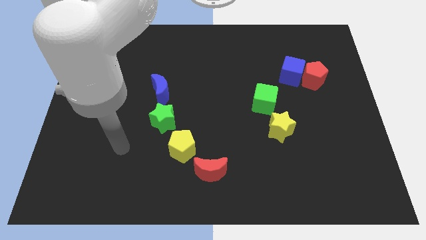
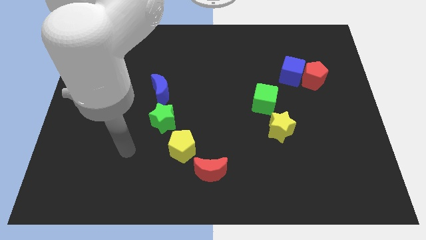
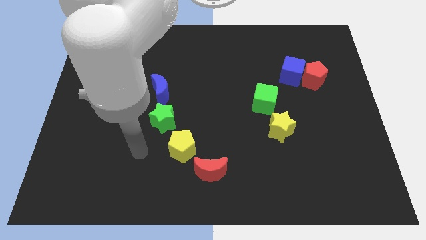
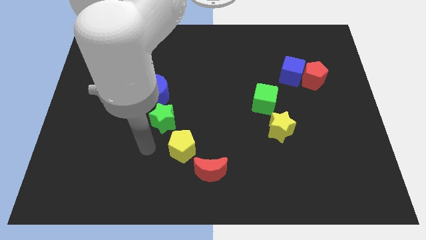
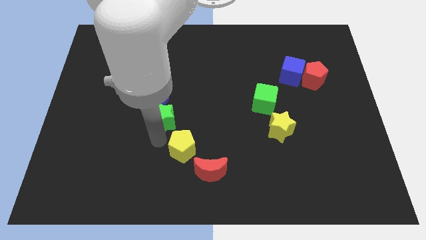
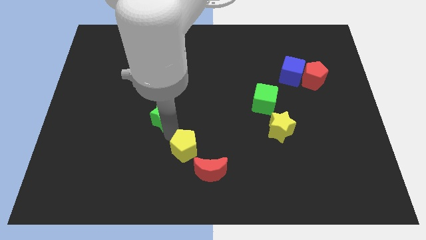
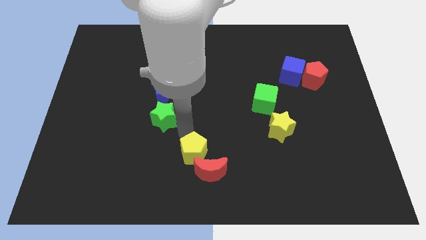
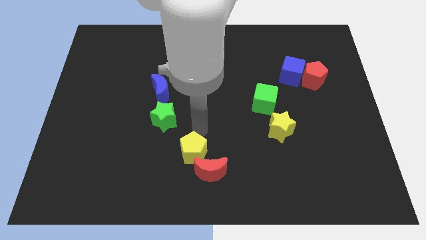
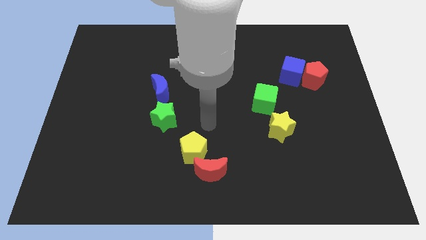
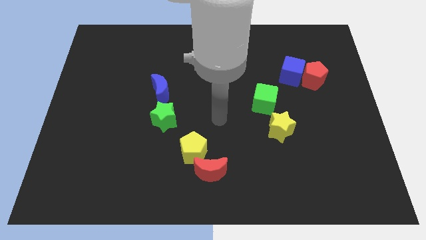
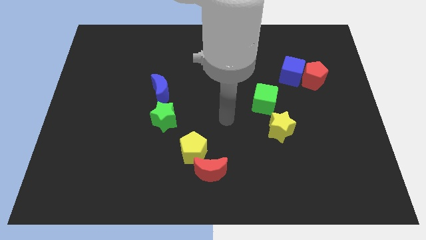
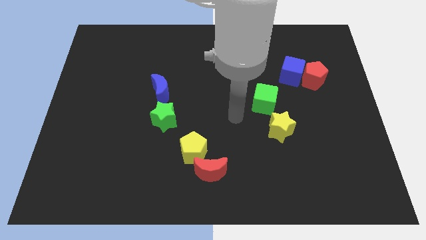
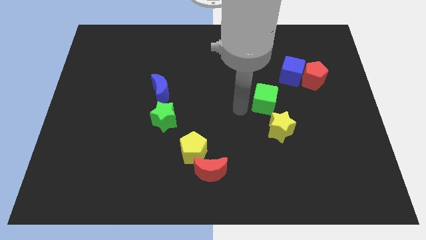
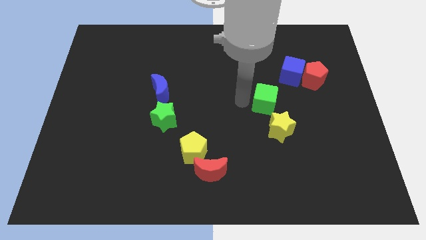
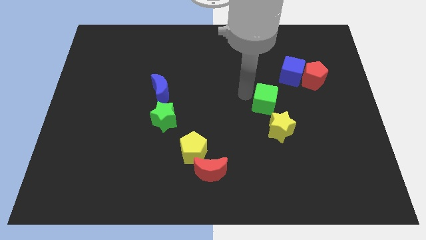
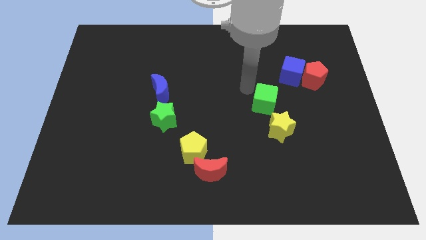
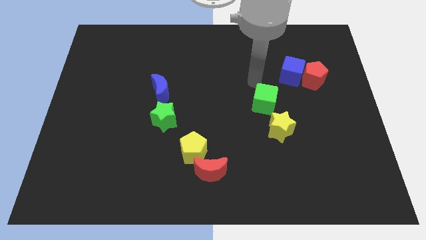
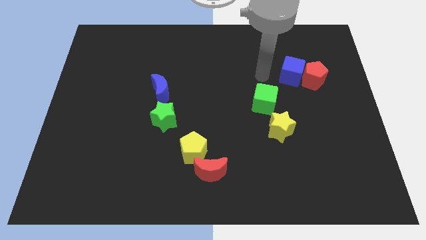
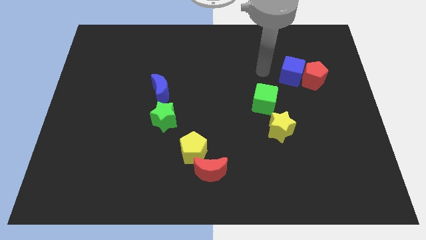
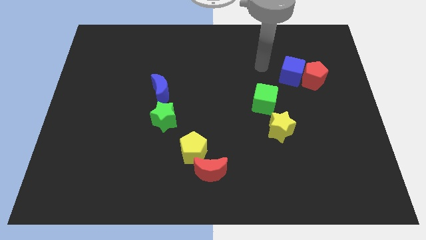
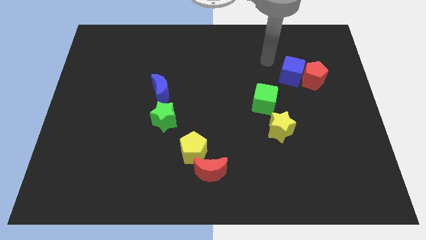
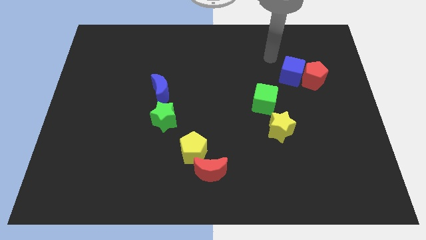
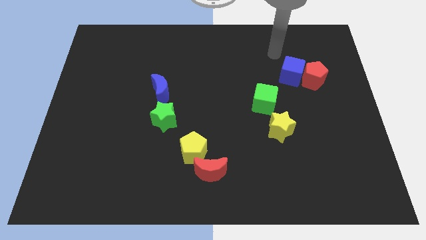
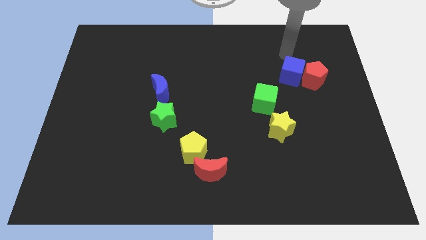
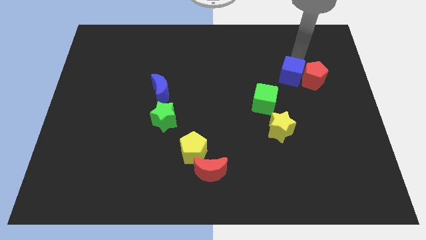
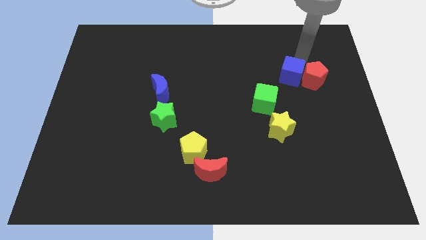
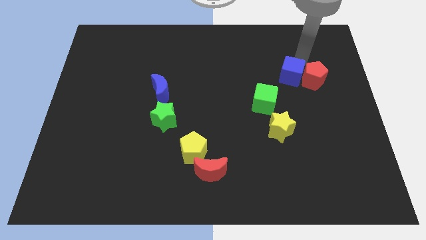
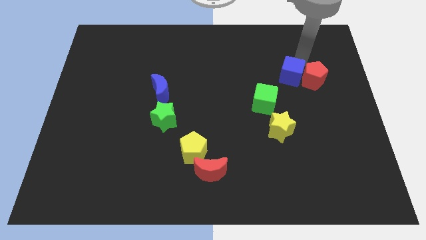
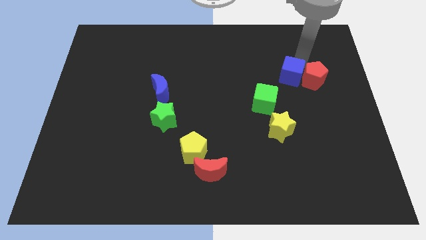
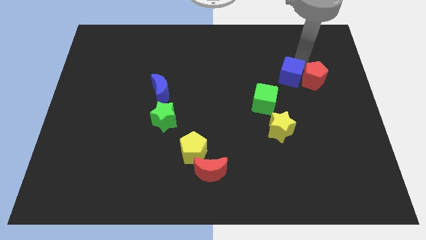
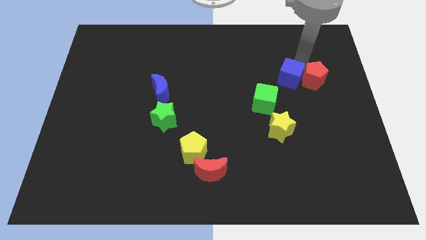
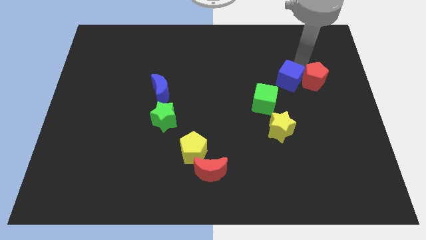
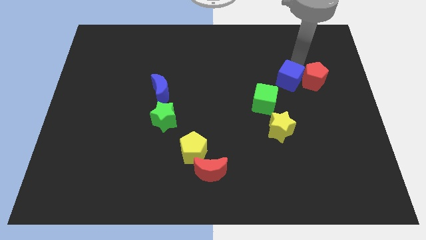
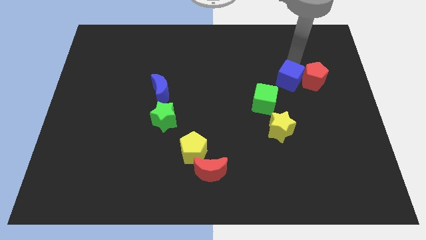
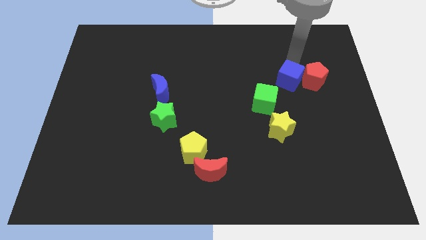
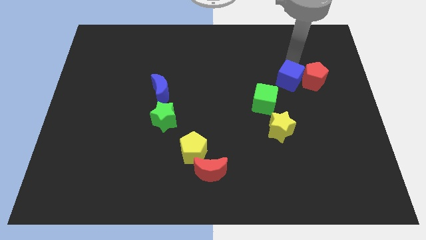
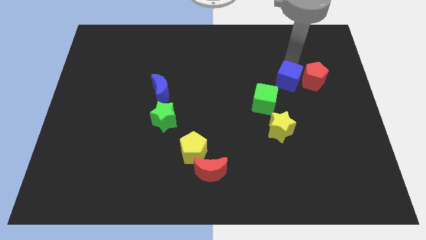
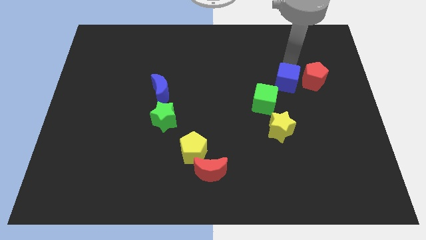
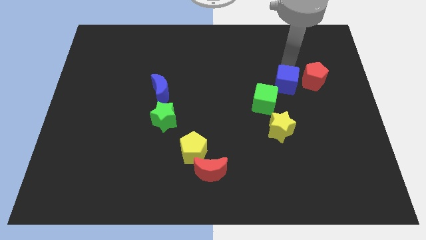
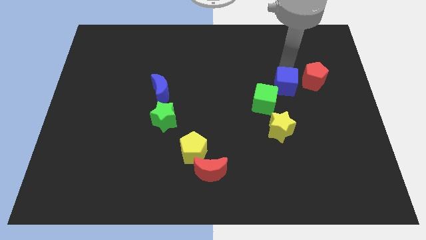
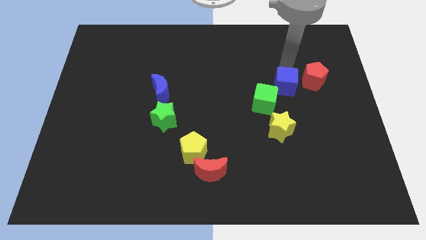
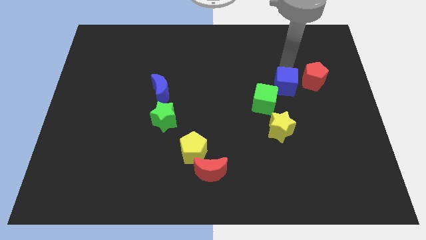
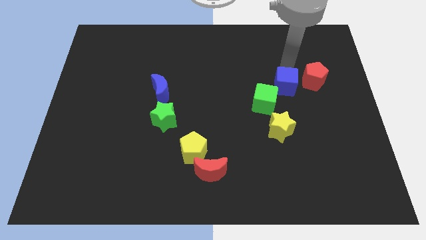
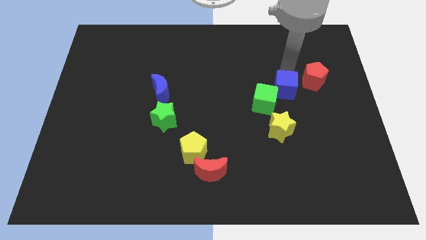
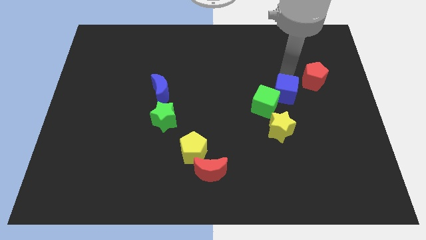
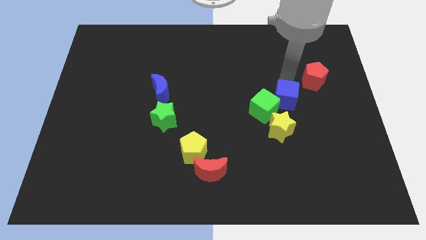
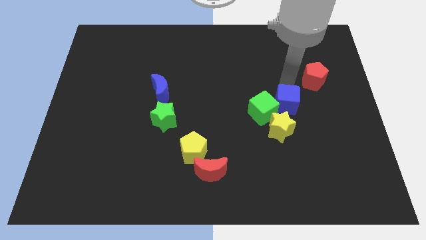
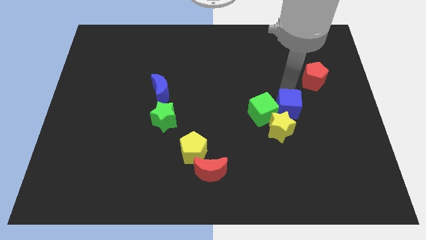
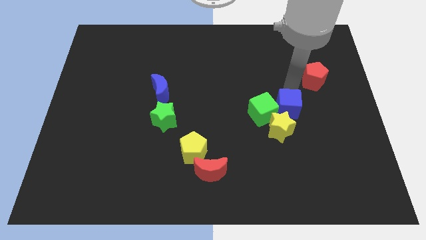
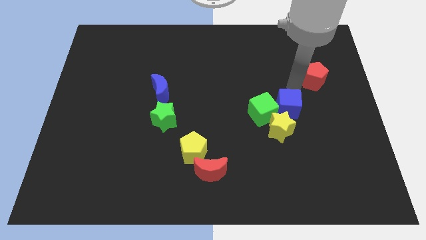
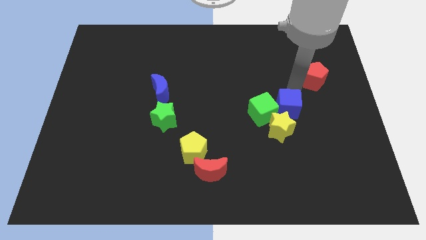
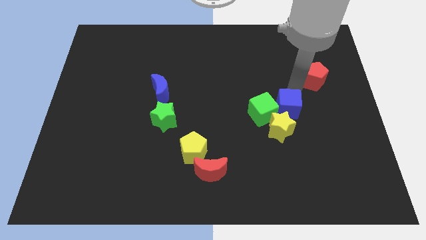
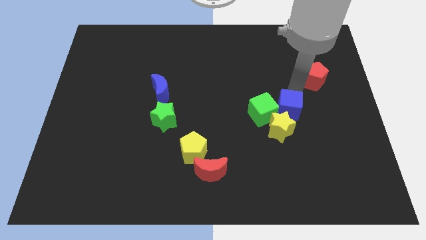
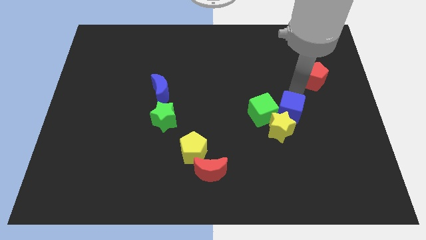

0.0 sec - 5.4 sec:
slide the blue cube close to the yellow star
